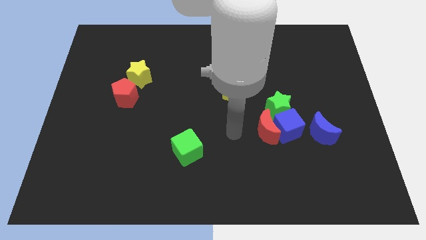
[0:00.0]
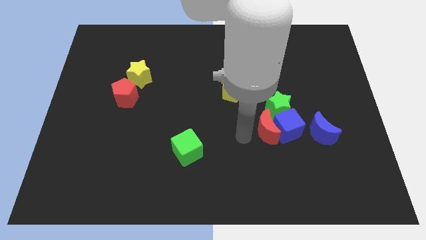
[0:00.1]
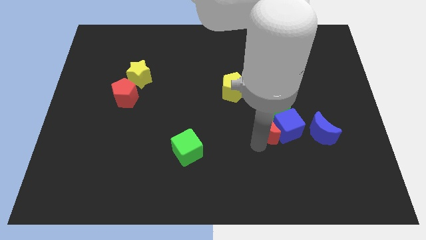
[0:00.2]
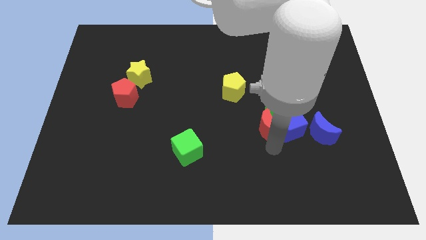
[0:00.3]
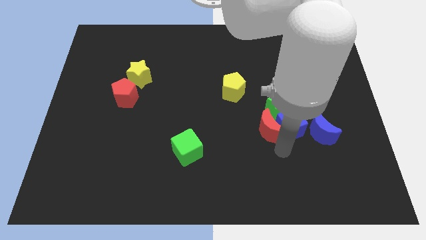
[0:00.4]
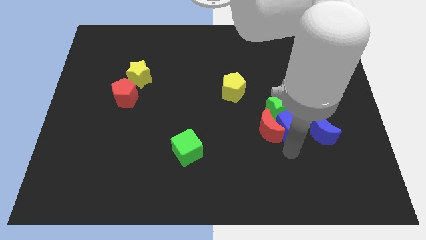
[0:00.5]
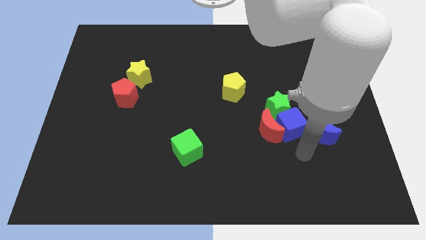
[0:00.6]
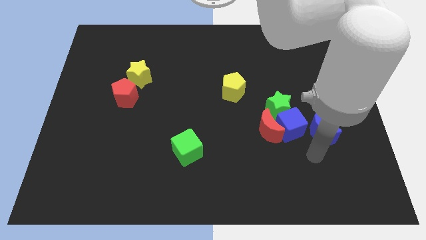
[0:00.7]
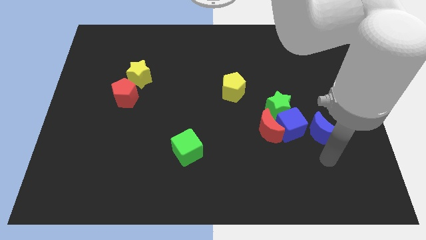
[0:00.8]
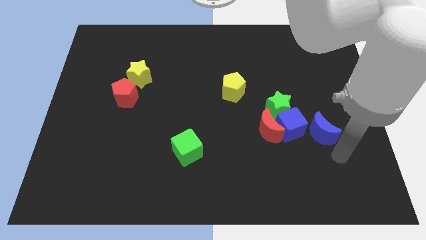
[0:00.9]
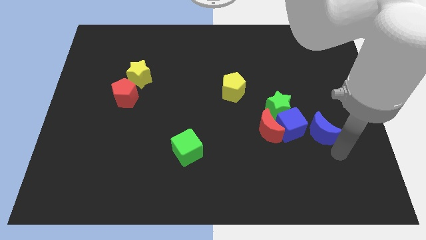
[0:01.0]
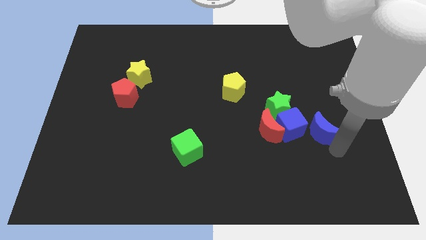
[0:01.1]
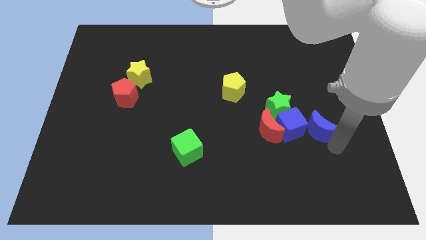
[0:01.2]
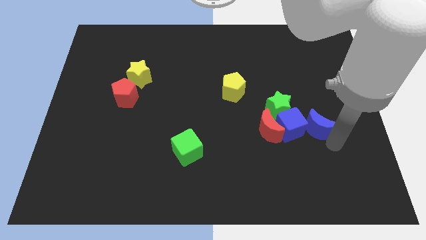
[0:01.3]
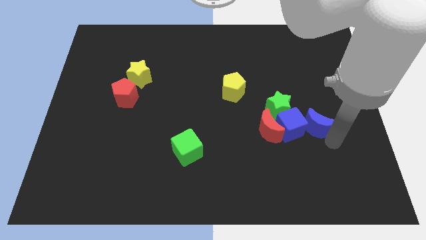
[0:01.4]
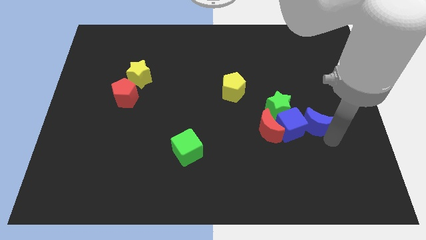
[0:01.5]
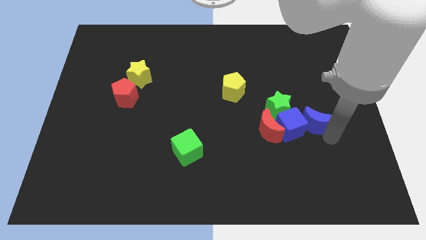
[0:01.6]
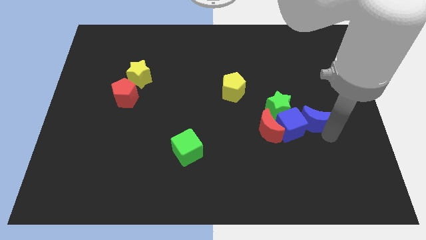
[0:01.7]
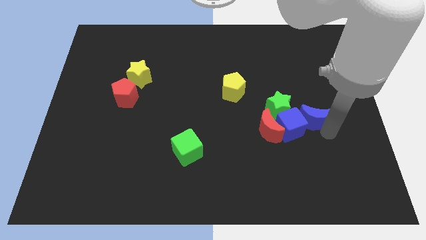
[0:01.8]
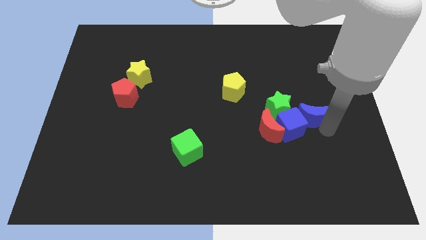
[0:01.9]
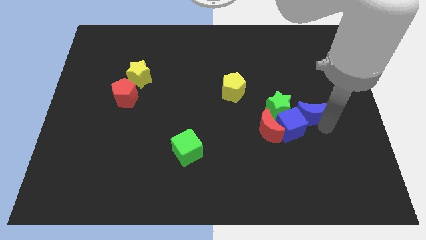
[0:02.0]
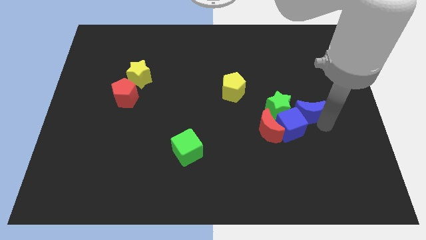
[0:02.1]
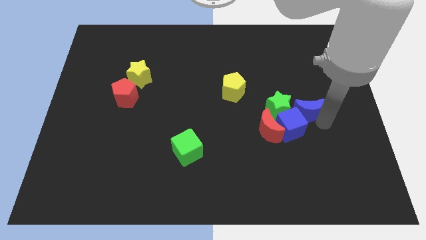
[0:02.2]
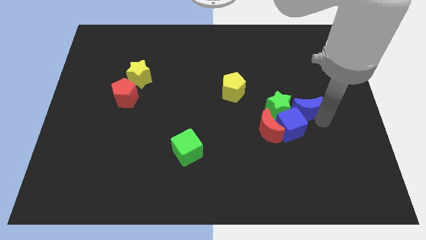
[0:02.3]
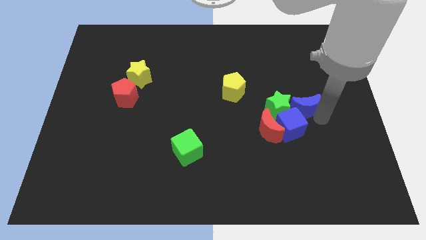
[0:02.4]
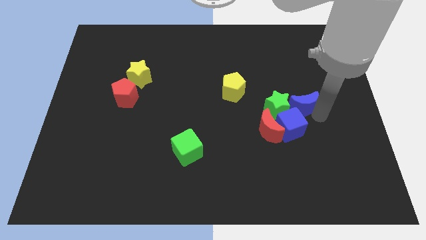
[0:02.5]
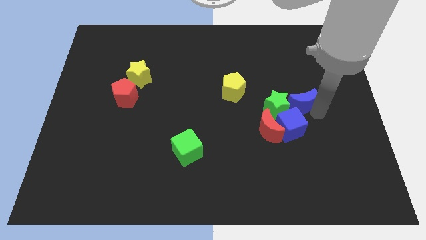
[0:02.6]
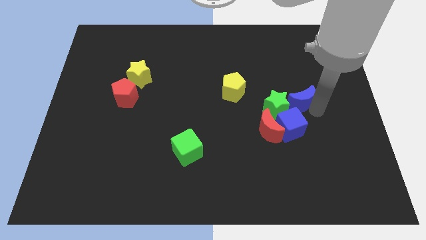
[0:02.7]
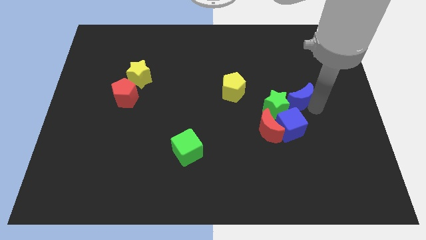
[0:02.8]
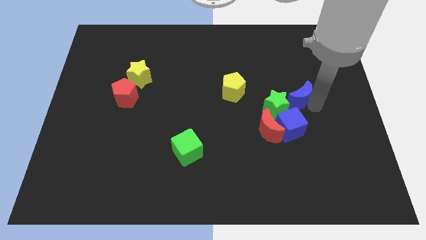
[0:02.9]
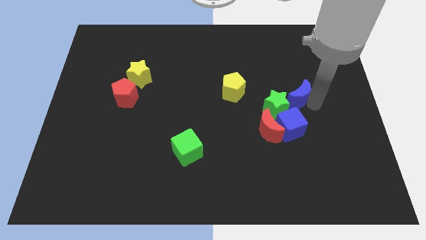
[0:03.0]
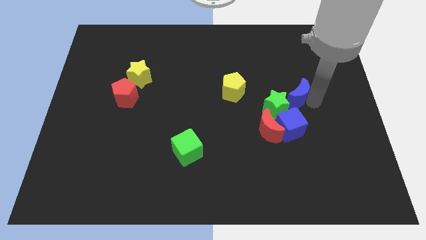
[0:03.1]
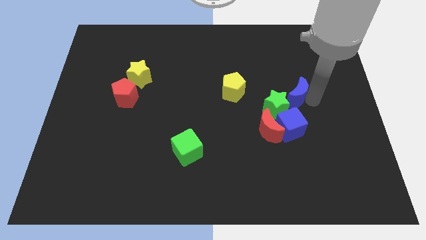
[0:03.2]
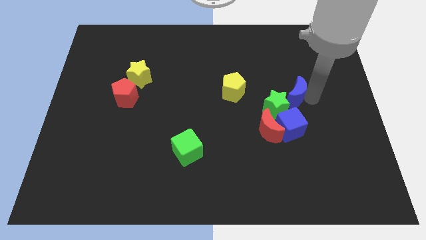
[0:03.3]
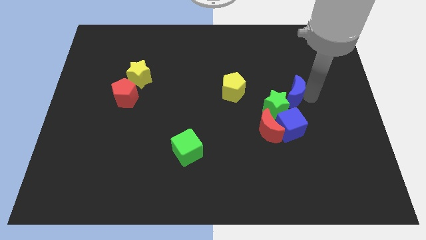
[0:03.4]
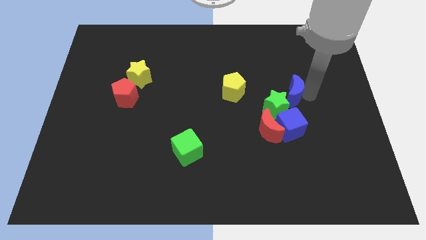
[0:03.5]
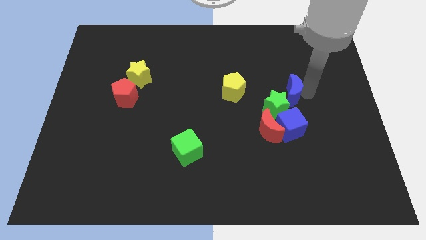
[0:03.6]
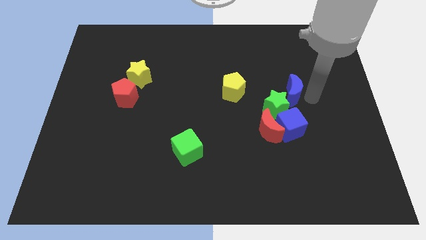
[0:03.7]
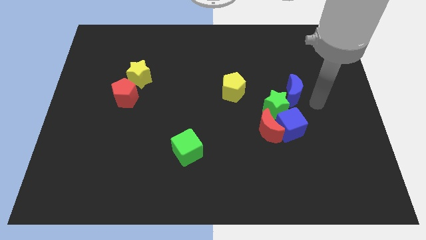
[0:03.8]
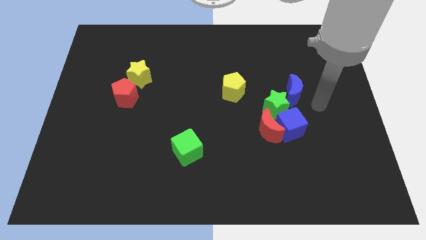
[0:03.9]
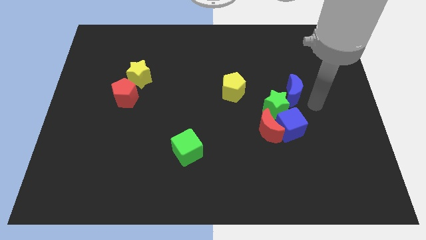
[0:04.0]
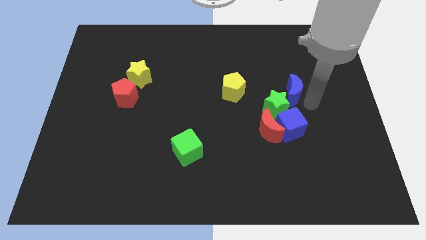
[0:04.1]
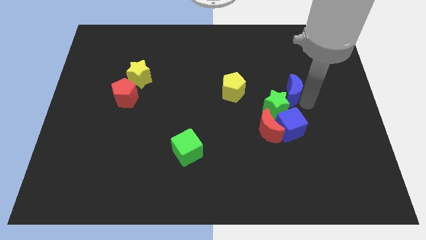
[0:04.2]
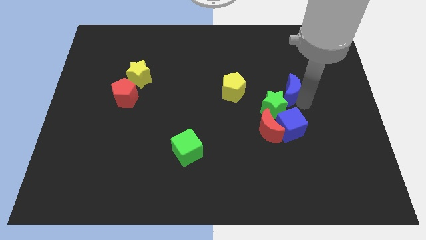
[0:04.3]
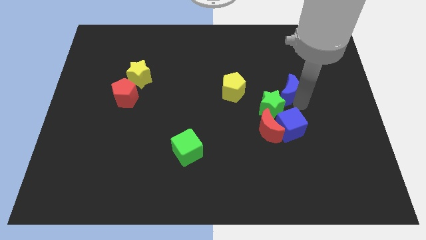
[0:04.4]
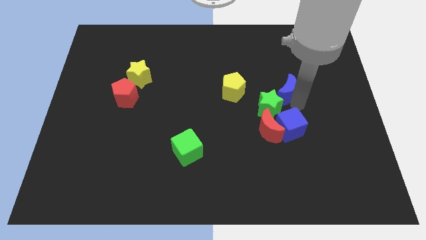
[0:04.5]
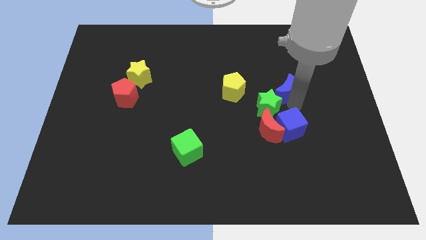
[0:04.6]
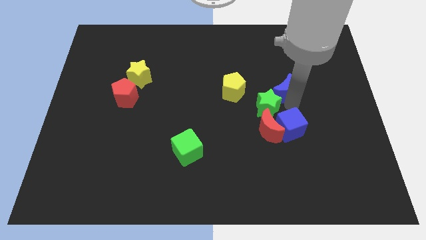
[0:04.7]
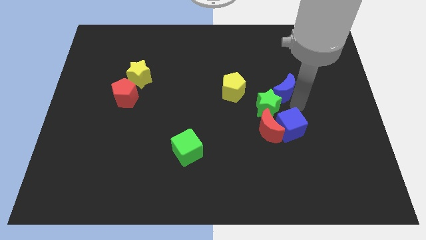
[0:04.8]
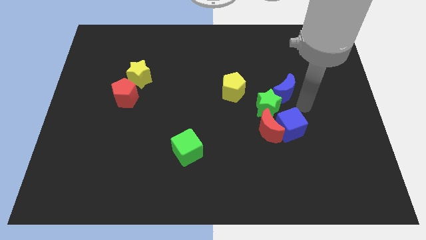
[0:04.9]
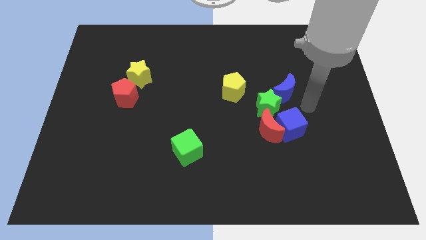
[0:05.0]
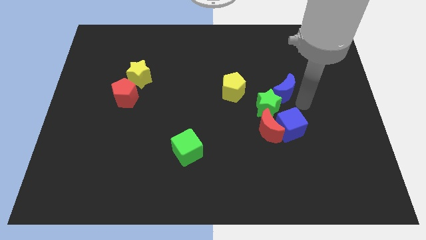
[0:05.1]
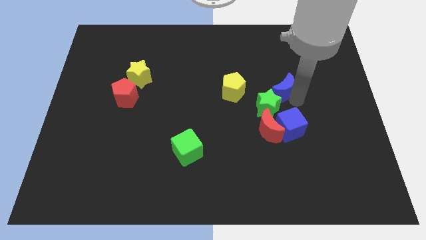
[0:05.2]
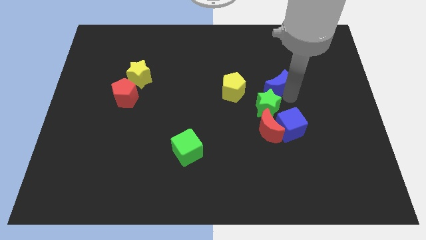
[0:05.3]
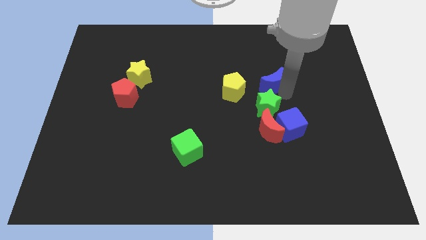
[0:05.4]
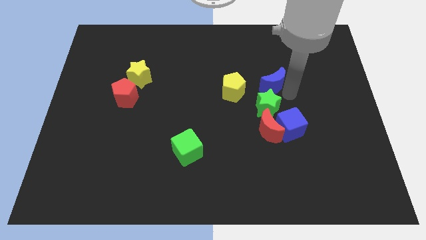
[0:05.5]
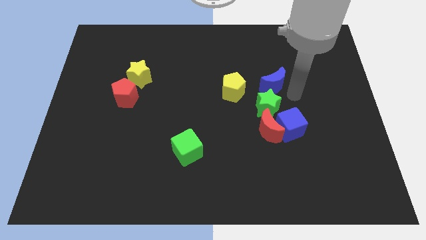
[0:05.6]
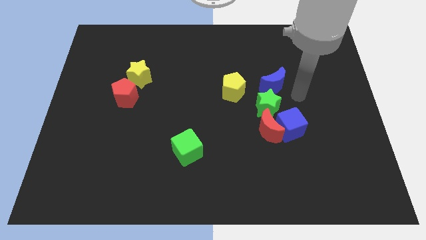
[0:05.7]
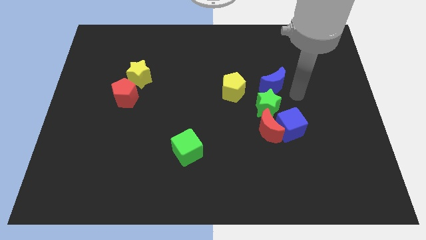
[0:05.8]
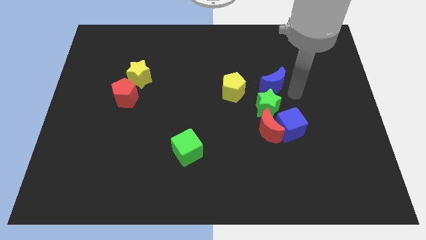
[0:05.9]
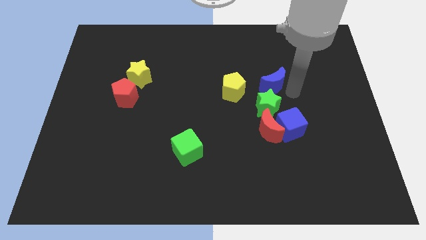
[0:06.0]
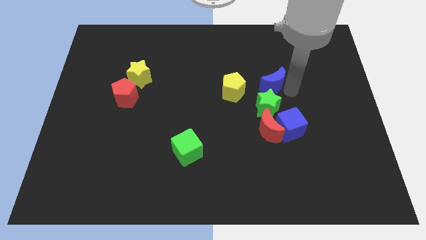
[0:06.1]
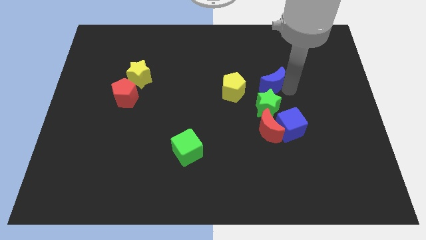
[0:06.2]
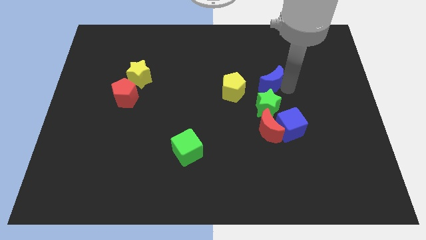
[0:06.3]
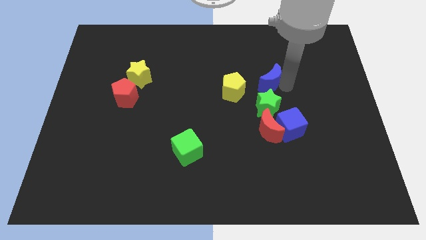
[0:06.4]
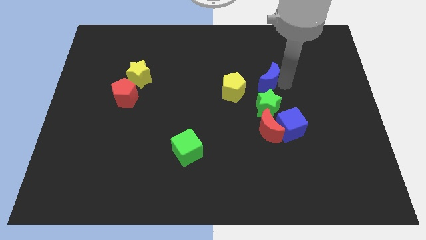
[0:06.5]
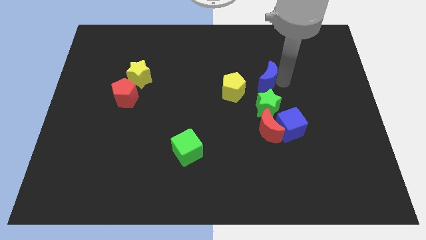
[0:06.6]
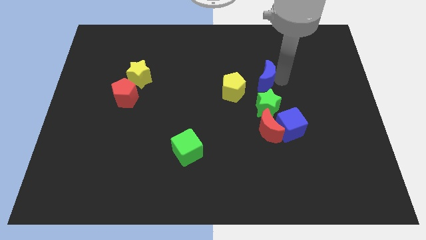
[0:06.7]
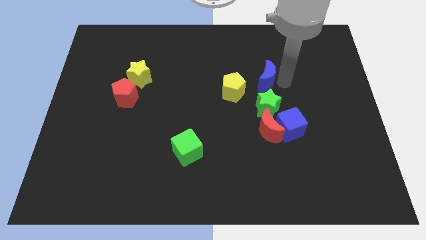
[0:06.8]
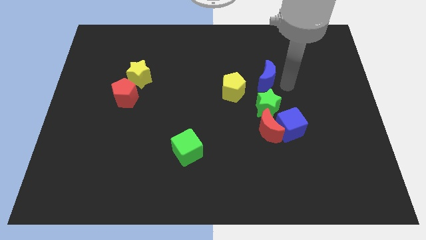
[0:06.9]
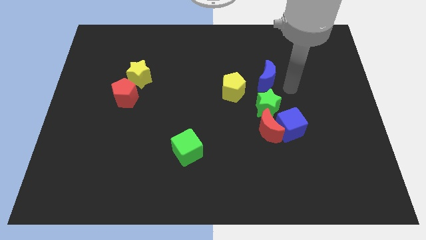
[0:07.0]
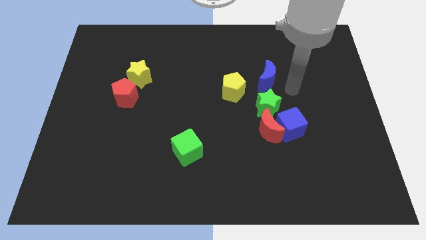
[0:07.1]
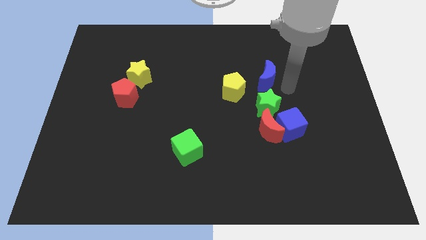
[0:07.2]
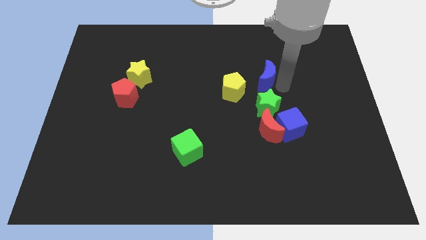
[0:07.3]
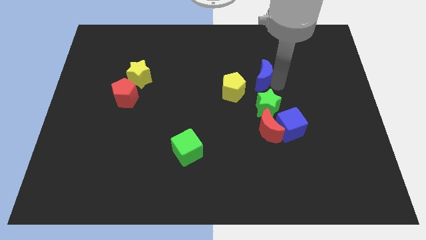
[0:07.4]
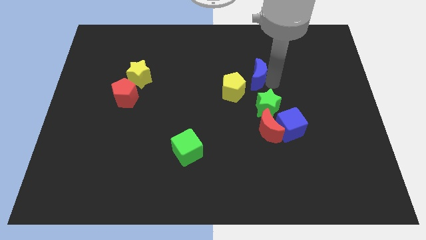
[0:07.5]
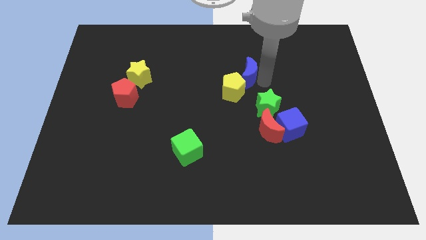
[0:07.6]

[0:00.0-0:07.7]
slide the blue moon to the top of the yellow pentagon

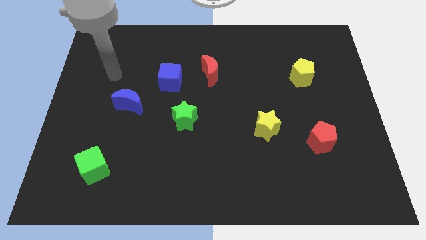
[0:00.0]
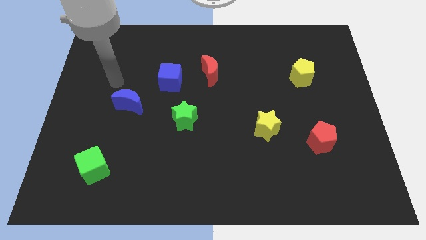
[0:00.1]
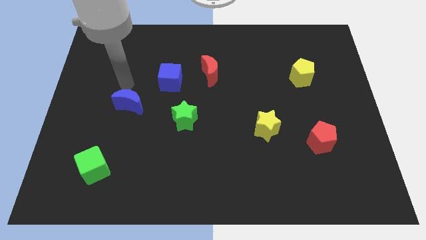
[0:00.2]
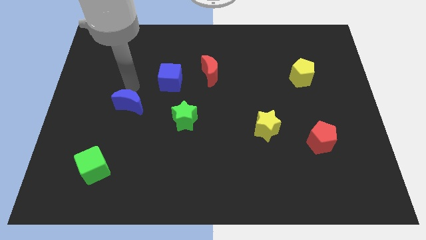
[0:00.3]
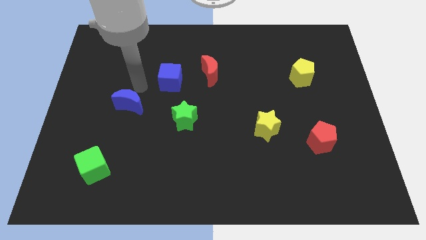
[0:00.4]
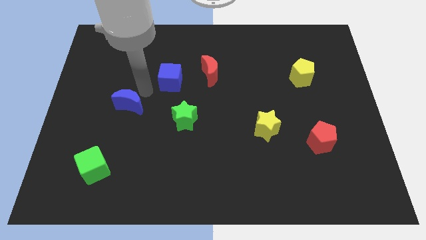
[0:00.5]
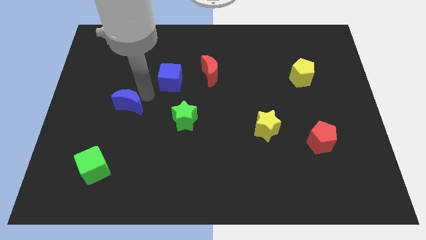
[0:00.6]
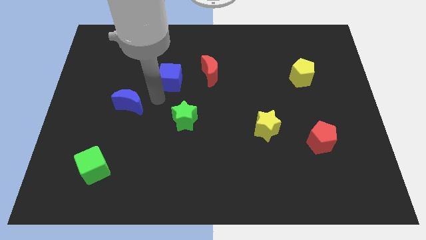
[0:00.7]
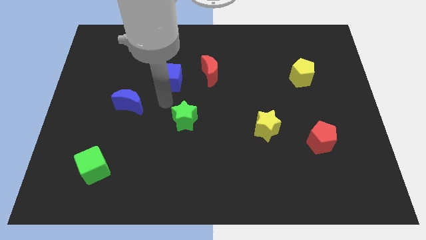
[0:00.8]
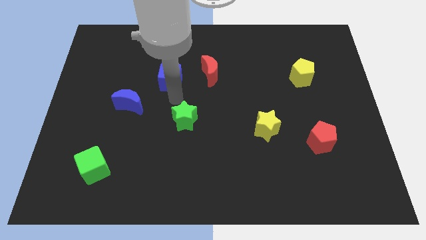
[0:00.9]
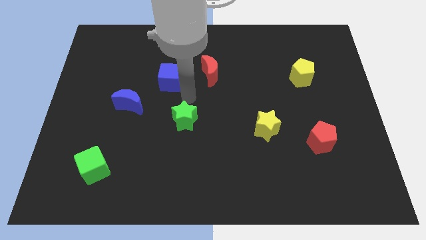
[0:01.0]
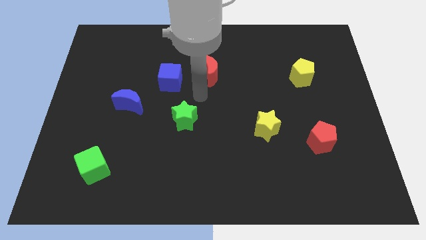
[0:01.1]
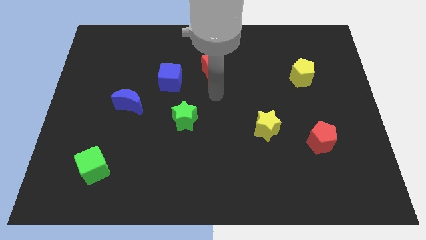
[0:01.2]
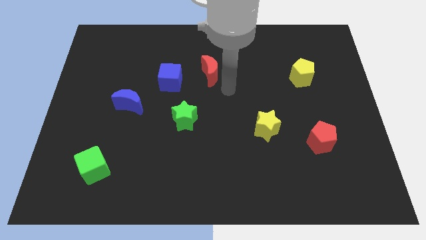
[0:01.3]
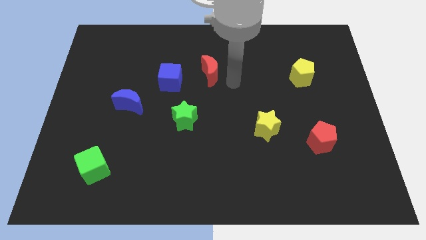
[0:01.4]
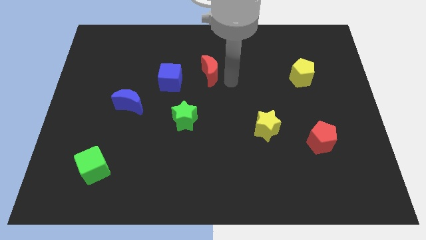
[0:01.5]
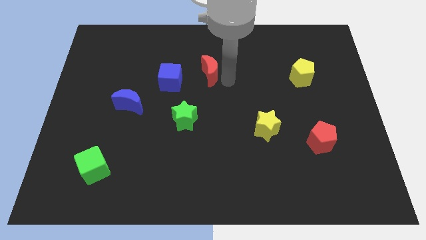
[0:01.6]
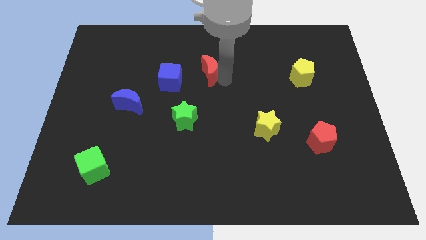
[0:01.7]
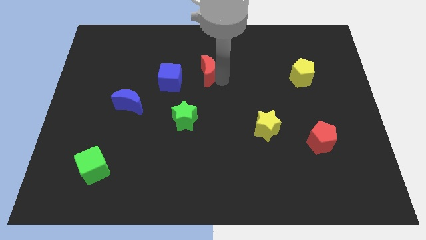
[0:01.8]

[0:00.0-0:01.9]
put the red moon to the top right side of the blue cube
